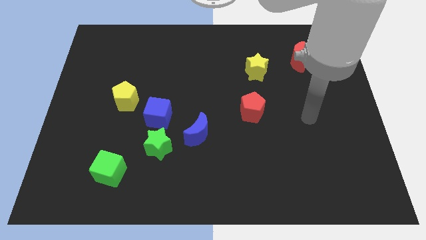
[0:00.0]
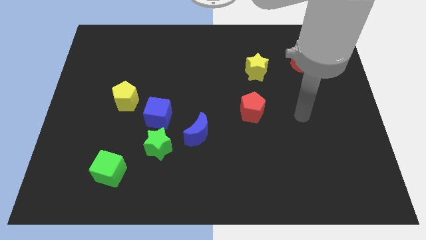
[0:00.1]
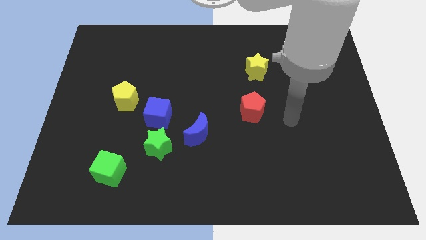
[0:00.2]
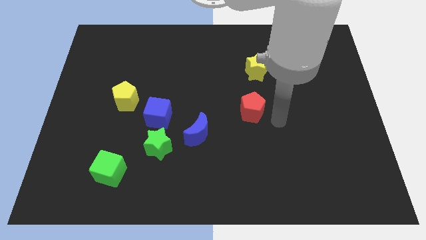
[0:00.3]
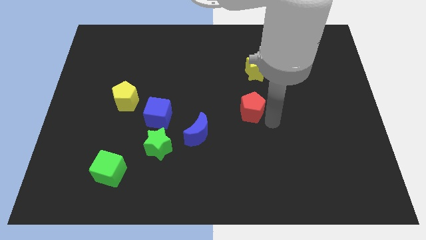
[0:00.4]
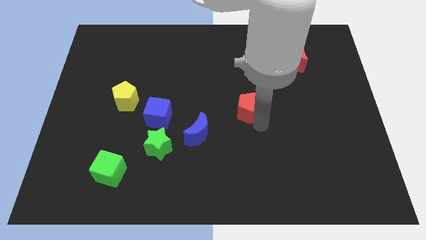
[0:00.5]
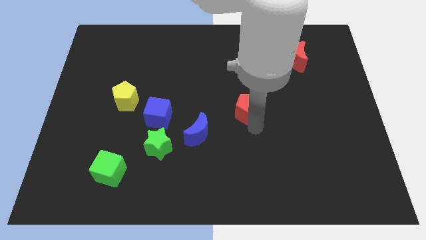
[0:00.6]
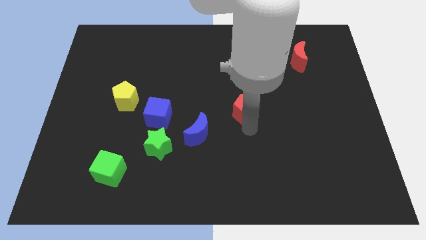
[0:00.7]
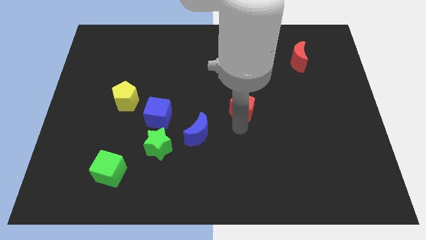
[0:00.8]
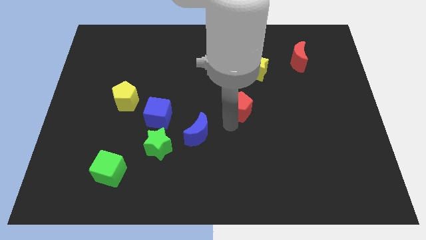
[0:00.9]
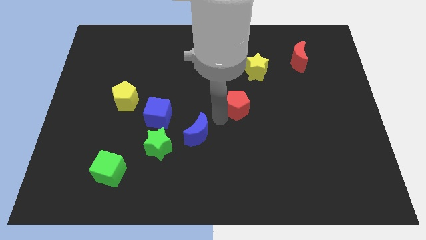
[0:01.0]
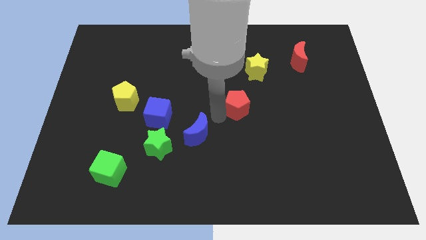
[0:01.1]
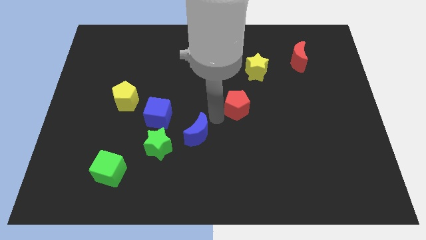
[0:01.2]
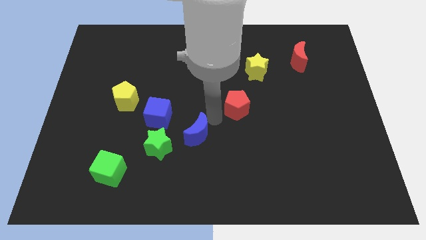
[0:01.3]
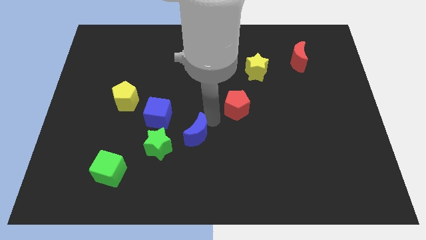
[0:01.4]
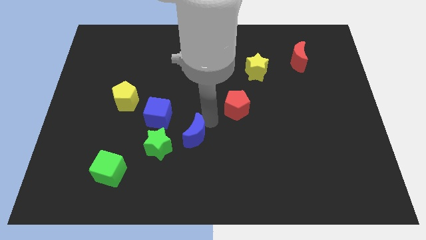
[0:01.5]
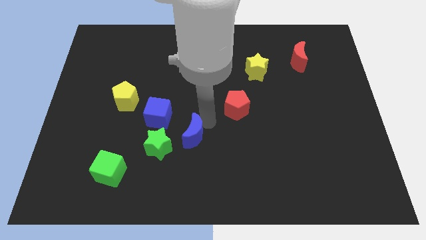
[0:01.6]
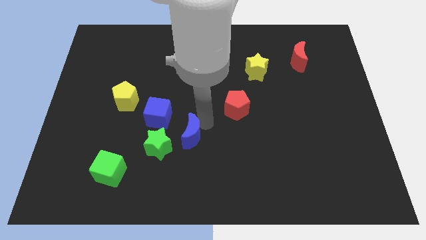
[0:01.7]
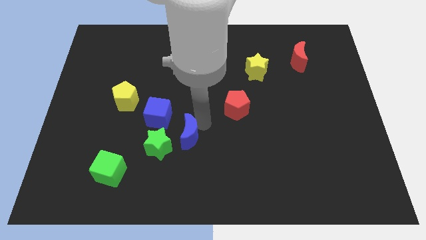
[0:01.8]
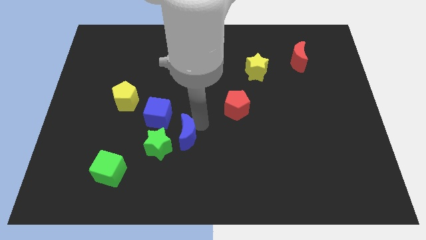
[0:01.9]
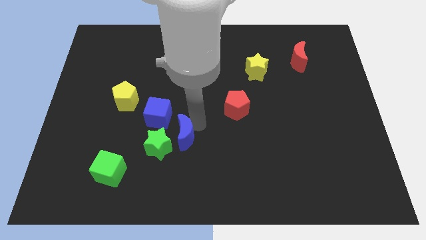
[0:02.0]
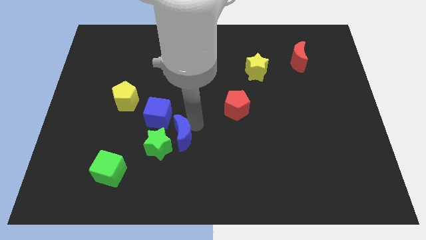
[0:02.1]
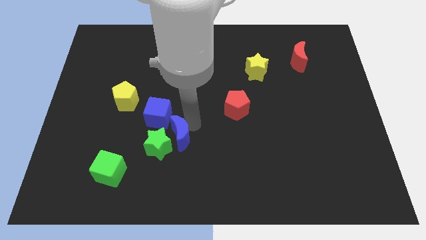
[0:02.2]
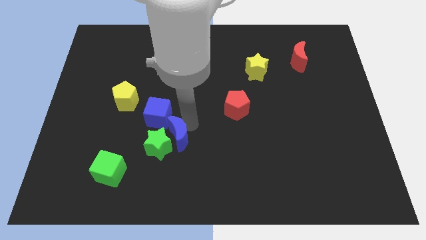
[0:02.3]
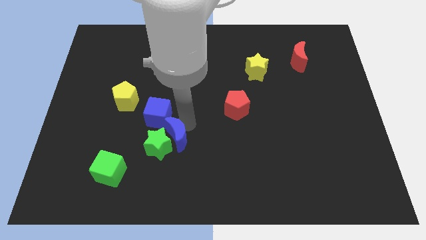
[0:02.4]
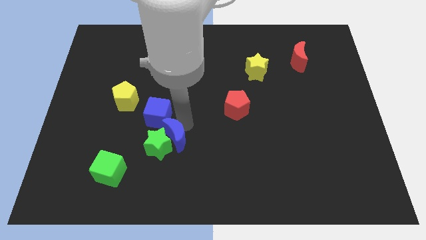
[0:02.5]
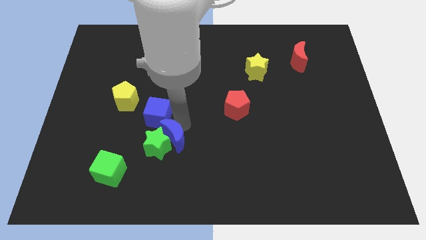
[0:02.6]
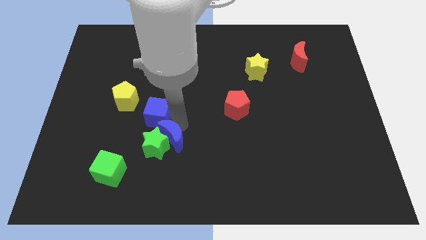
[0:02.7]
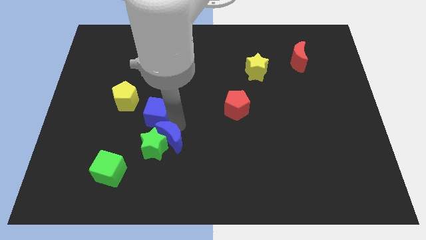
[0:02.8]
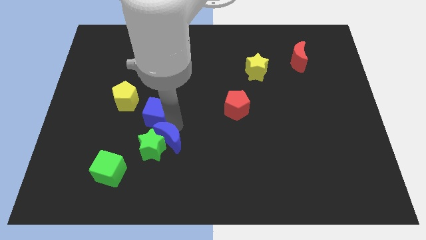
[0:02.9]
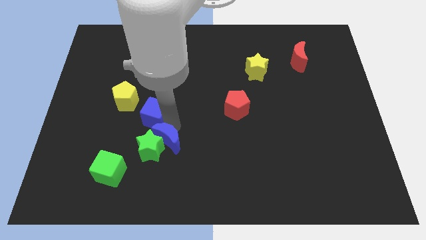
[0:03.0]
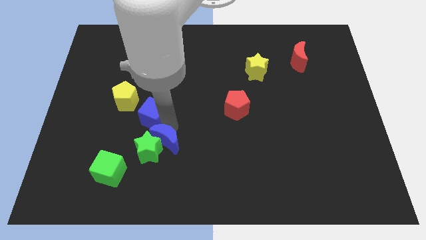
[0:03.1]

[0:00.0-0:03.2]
push the blue moon a bit left

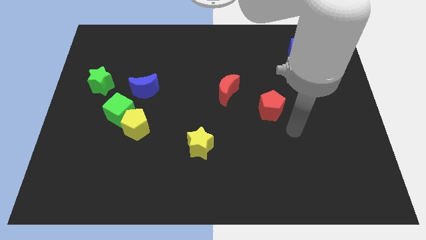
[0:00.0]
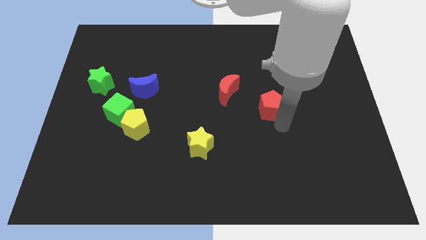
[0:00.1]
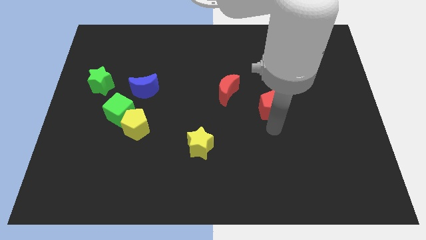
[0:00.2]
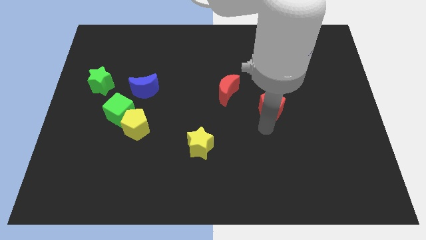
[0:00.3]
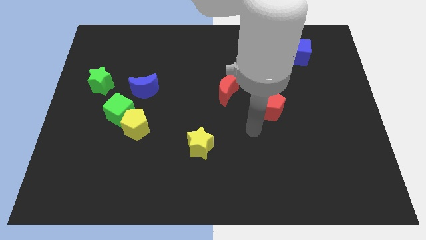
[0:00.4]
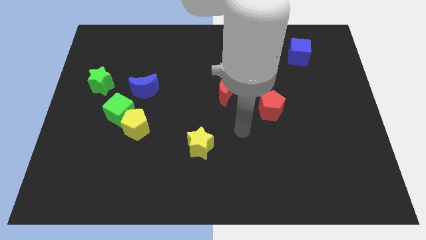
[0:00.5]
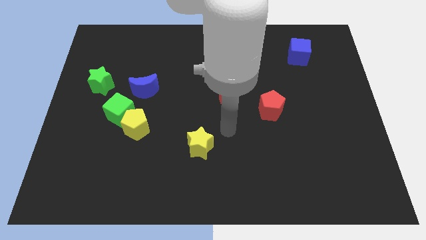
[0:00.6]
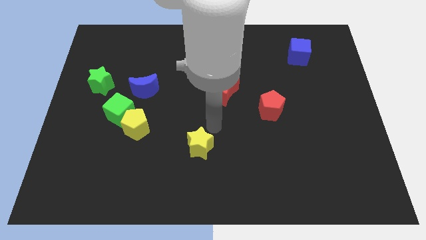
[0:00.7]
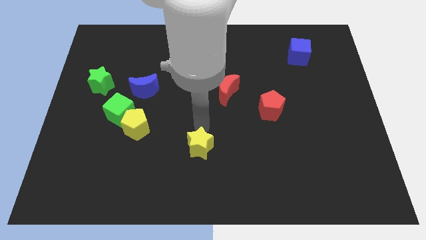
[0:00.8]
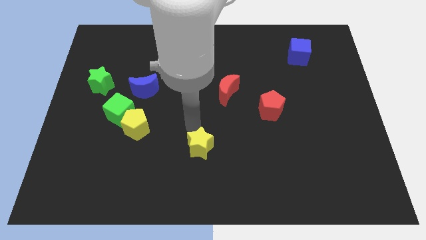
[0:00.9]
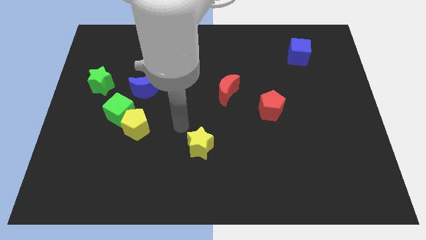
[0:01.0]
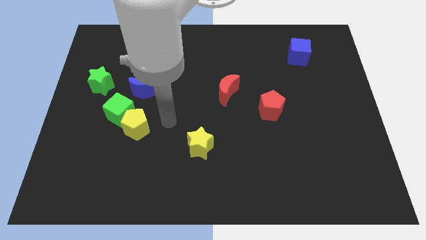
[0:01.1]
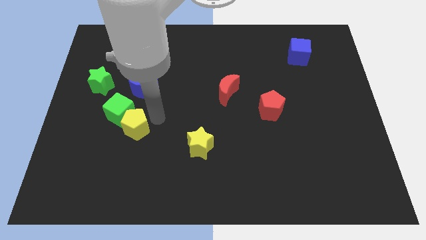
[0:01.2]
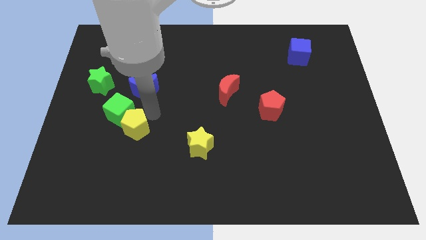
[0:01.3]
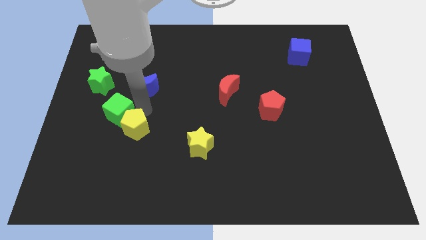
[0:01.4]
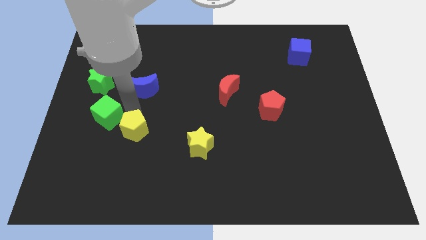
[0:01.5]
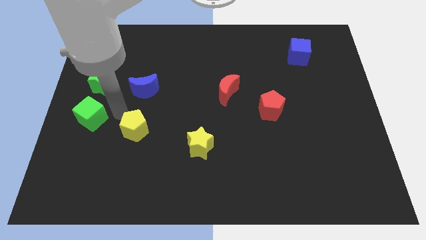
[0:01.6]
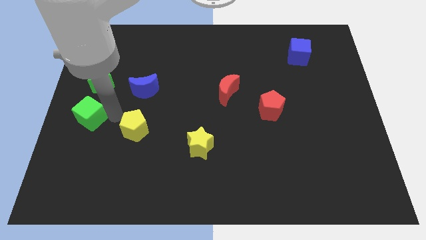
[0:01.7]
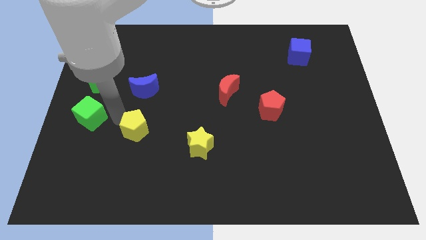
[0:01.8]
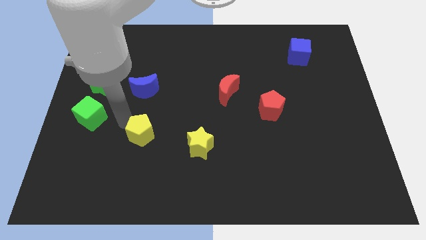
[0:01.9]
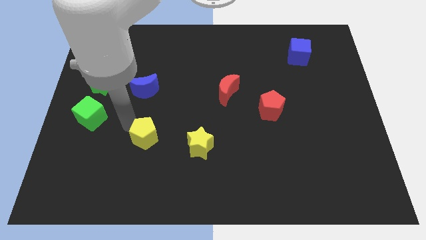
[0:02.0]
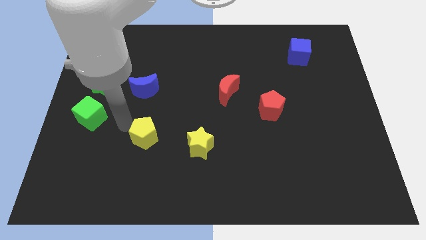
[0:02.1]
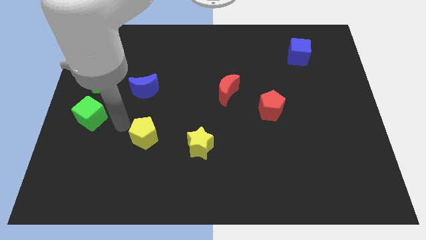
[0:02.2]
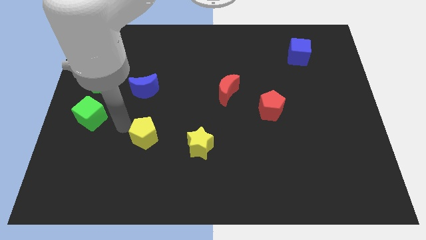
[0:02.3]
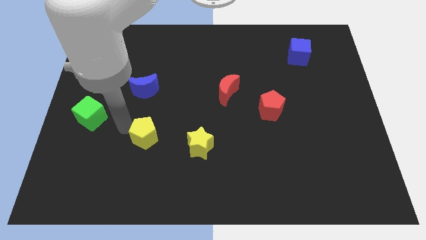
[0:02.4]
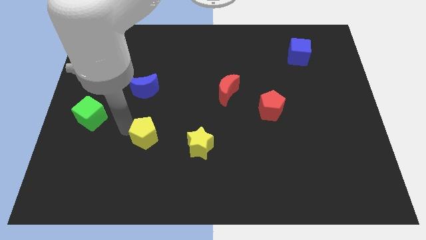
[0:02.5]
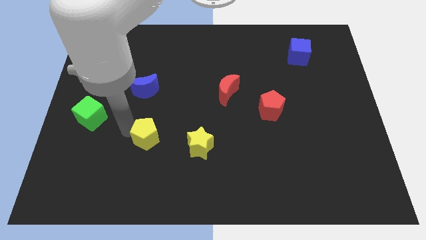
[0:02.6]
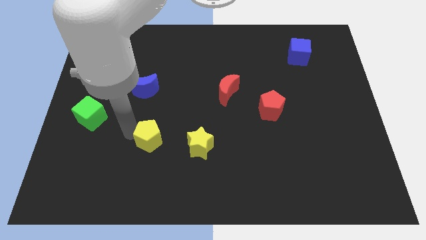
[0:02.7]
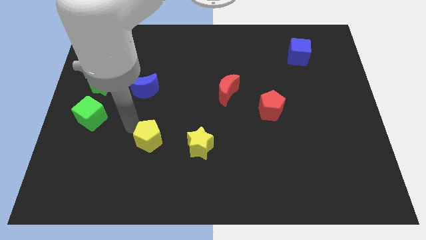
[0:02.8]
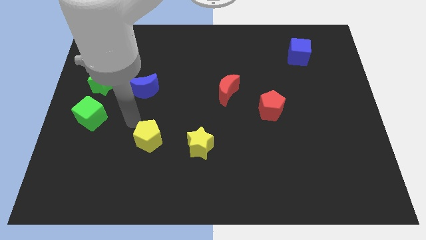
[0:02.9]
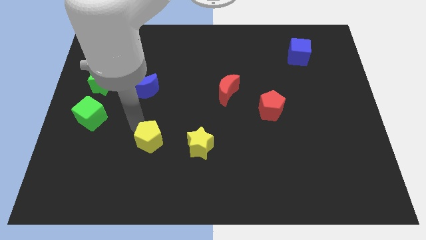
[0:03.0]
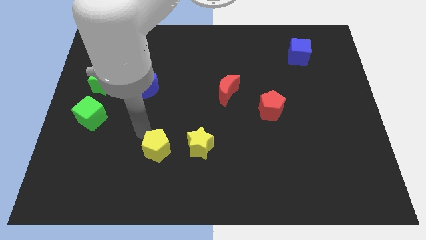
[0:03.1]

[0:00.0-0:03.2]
move the yellow pentagon a little down and to the right diagonally

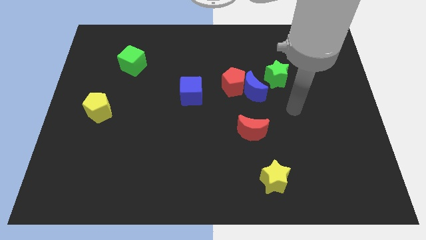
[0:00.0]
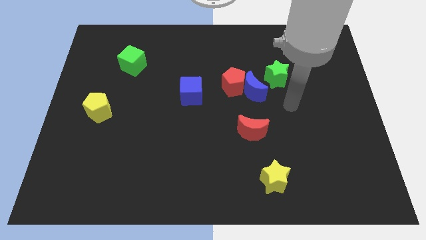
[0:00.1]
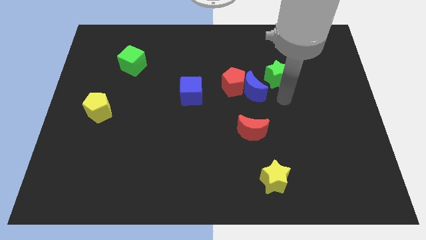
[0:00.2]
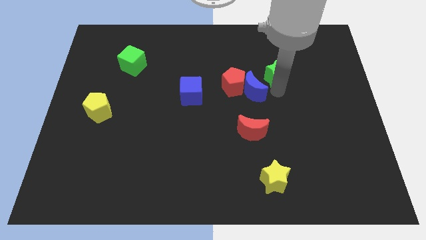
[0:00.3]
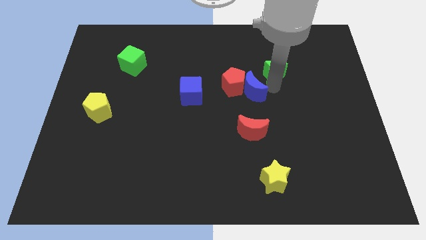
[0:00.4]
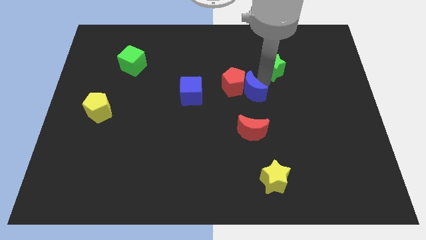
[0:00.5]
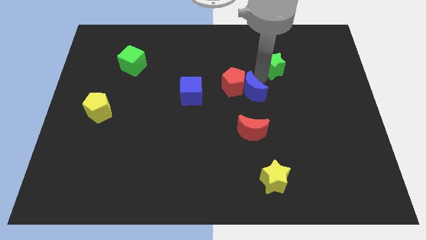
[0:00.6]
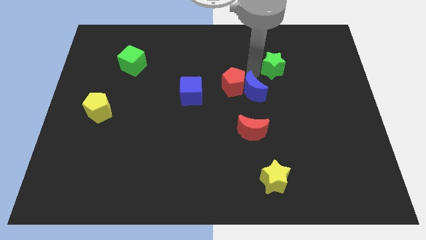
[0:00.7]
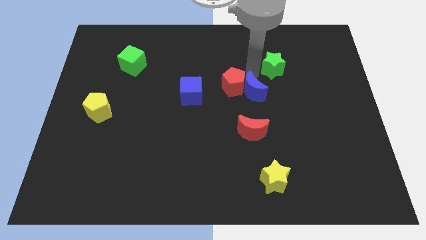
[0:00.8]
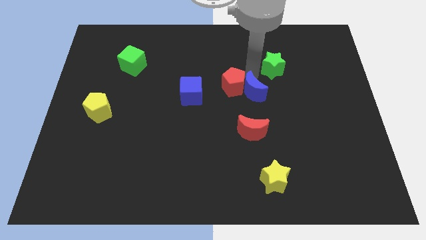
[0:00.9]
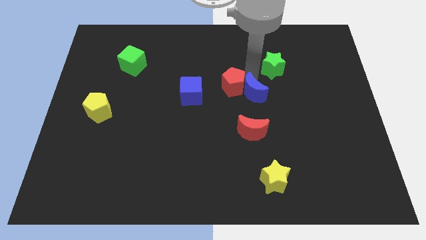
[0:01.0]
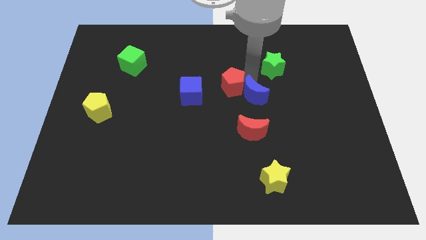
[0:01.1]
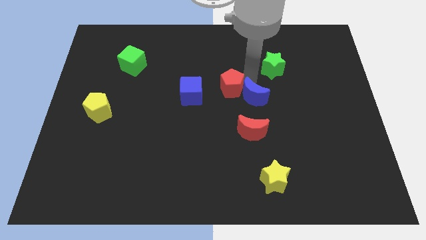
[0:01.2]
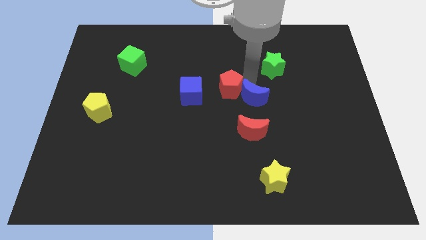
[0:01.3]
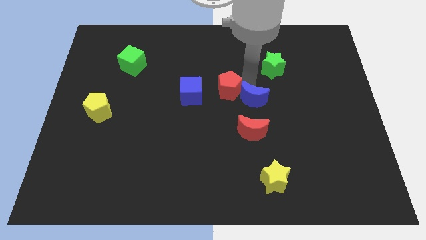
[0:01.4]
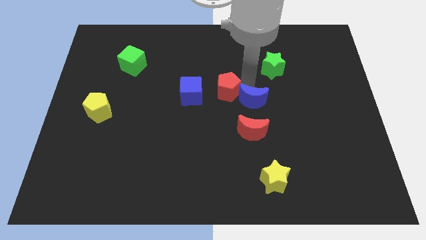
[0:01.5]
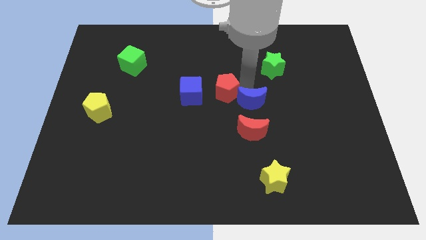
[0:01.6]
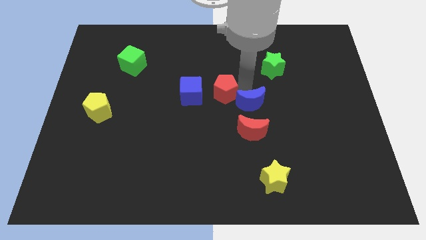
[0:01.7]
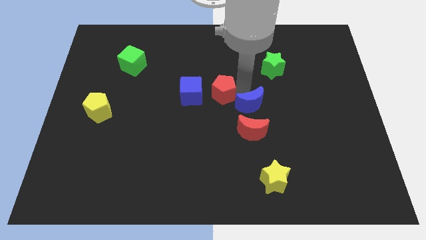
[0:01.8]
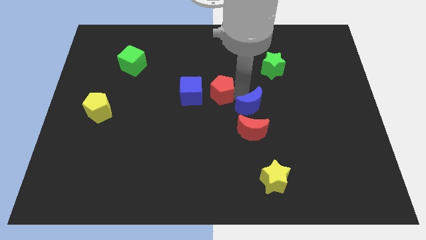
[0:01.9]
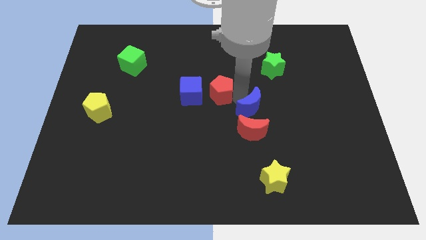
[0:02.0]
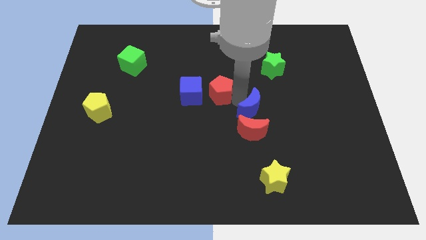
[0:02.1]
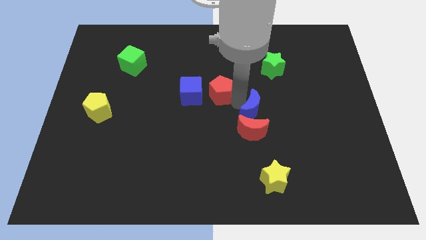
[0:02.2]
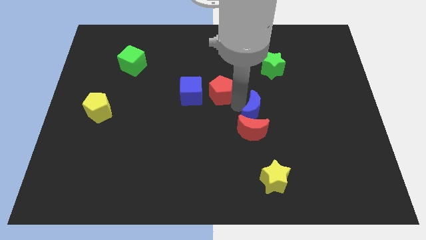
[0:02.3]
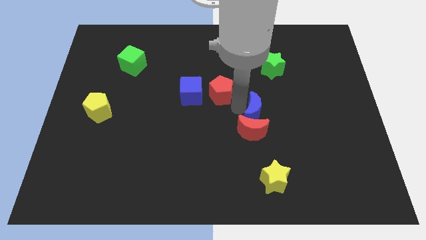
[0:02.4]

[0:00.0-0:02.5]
slightly slide the blue moon downwards
